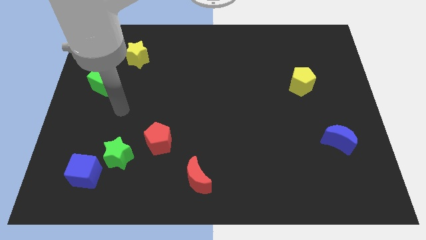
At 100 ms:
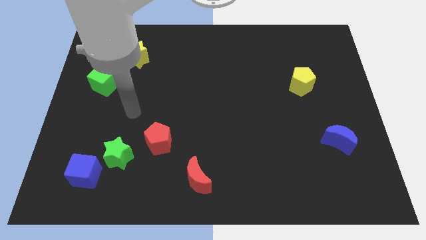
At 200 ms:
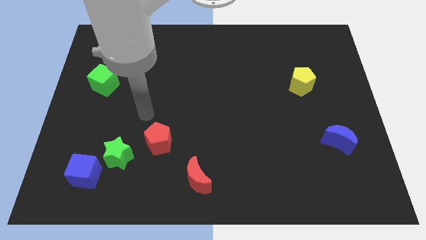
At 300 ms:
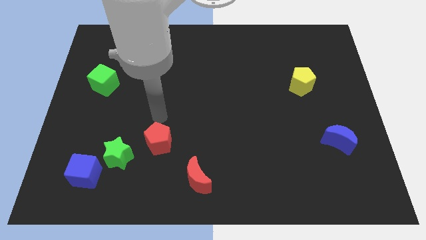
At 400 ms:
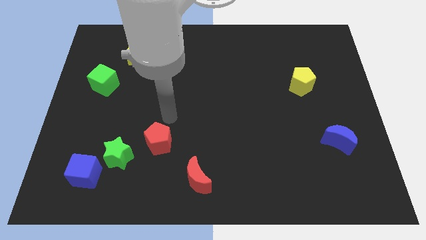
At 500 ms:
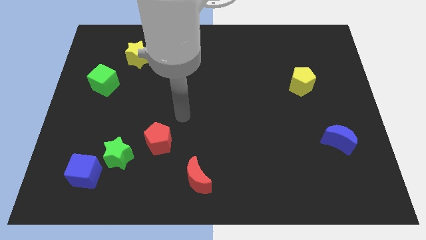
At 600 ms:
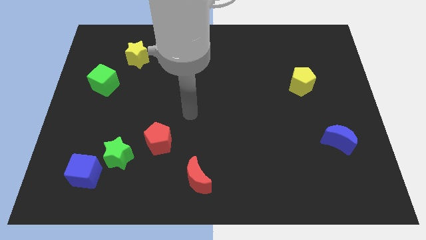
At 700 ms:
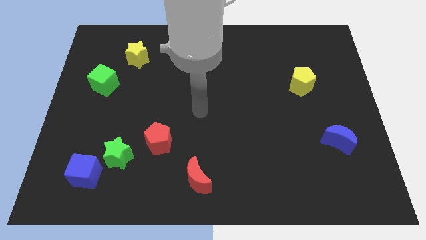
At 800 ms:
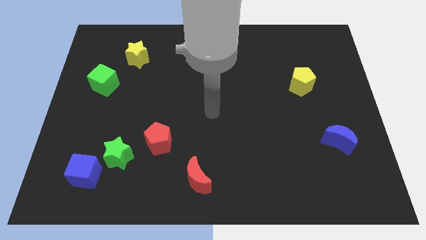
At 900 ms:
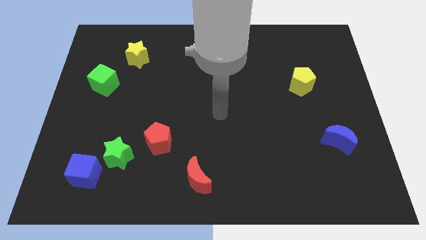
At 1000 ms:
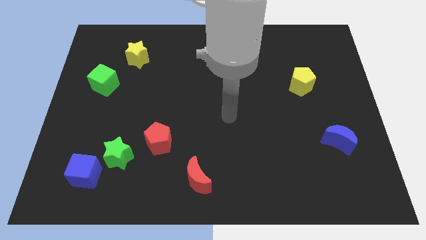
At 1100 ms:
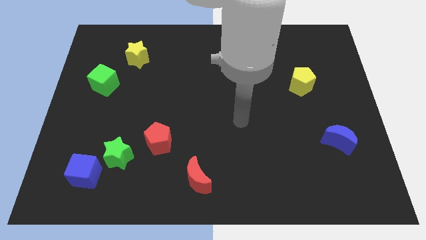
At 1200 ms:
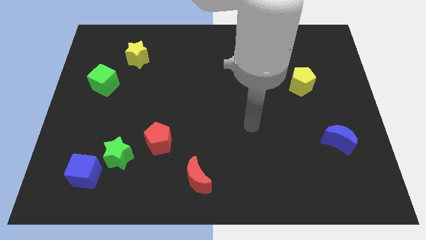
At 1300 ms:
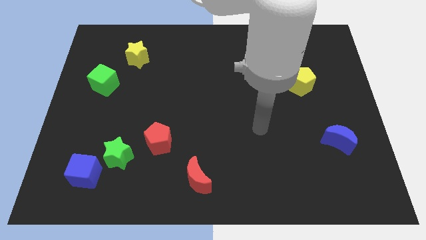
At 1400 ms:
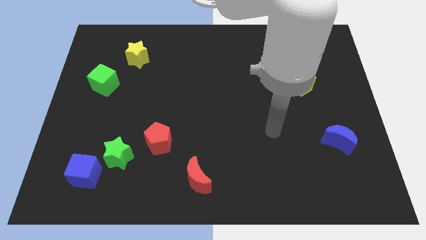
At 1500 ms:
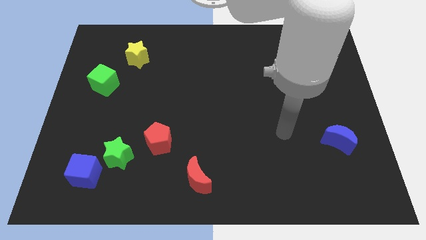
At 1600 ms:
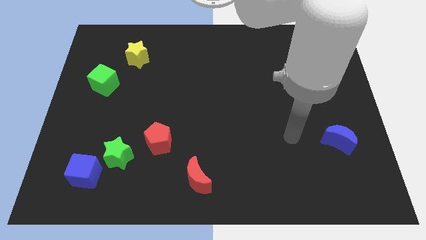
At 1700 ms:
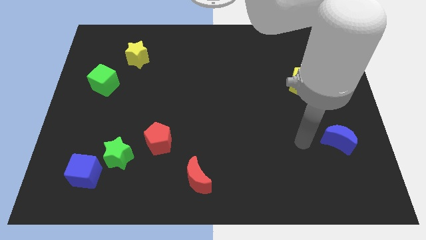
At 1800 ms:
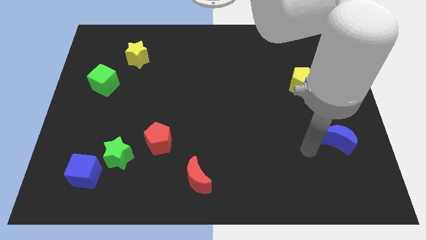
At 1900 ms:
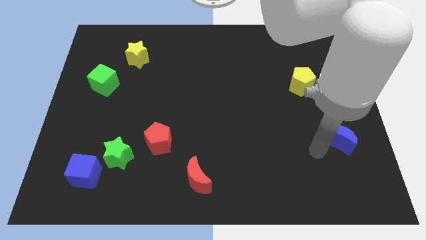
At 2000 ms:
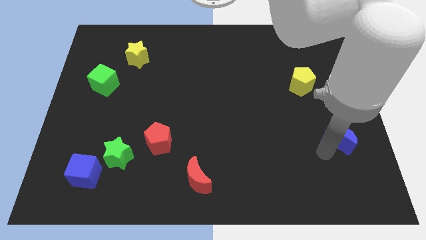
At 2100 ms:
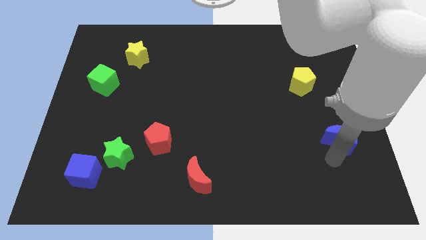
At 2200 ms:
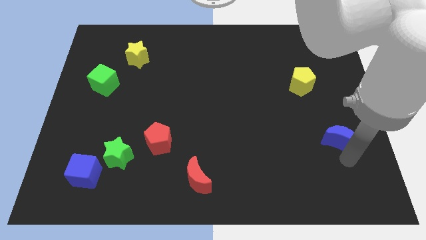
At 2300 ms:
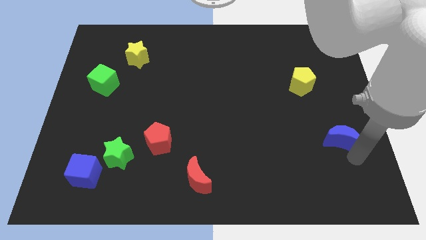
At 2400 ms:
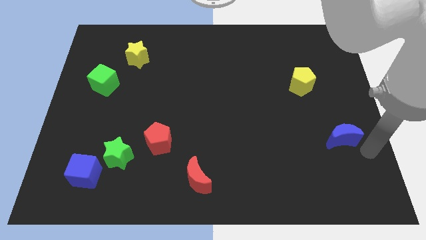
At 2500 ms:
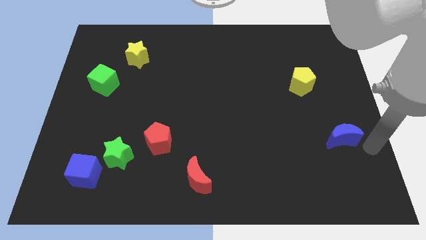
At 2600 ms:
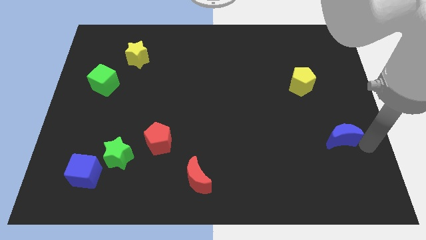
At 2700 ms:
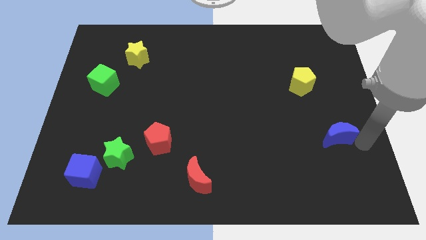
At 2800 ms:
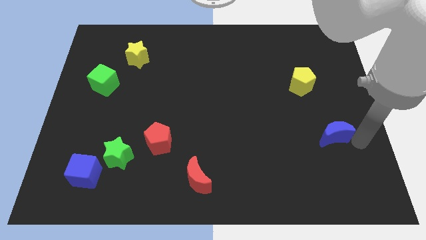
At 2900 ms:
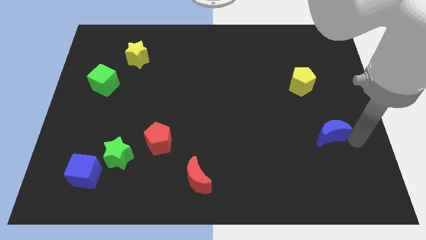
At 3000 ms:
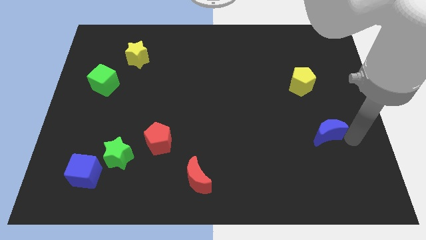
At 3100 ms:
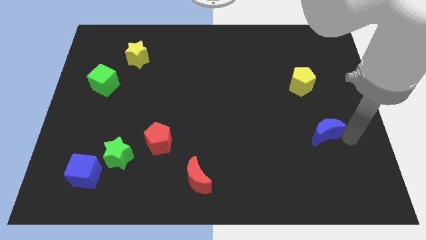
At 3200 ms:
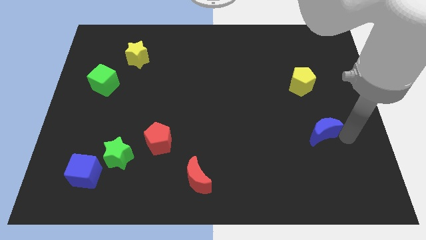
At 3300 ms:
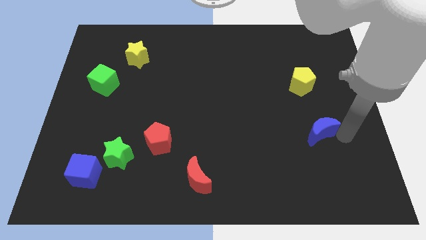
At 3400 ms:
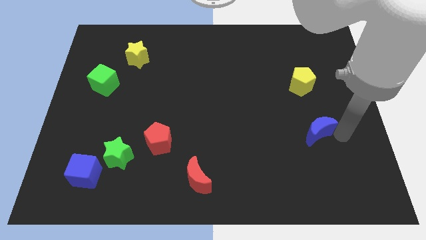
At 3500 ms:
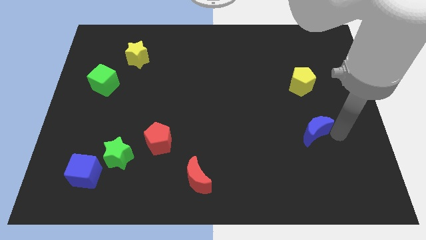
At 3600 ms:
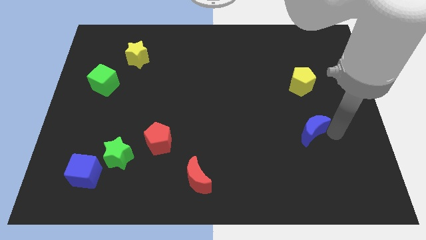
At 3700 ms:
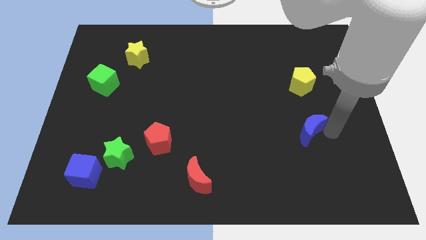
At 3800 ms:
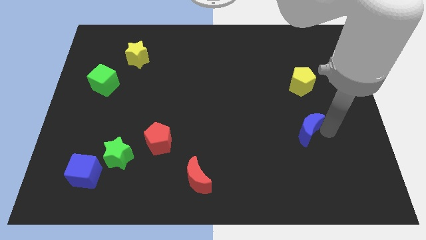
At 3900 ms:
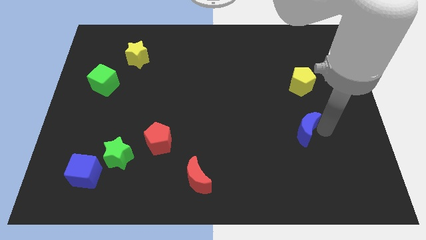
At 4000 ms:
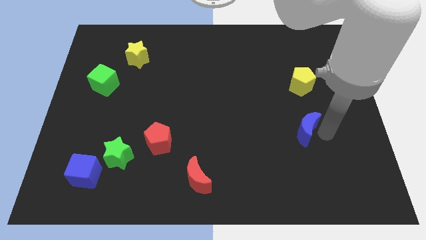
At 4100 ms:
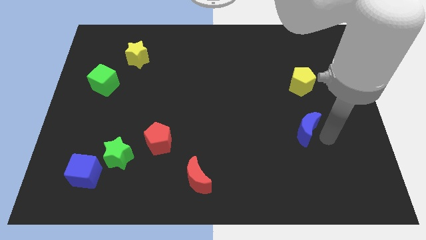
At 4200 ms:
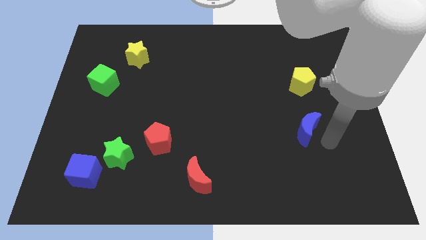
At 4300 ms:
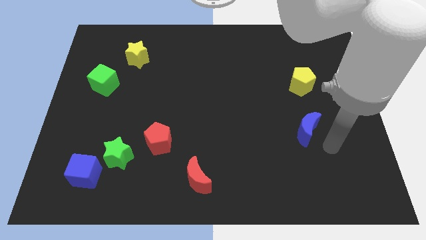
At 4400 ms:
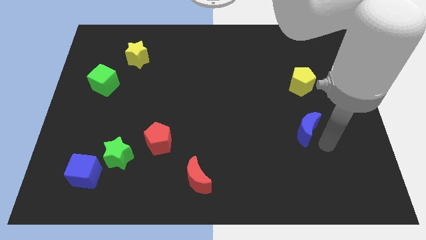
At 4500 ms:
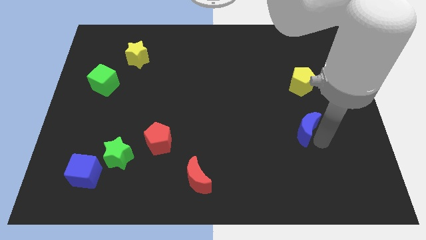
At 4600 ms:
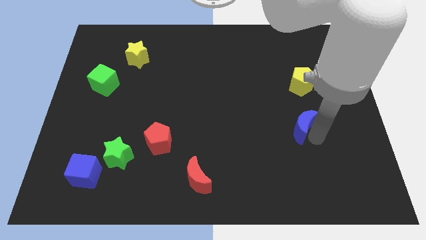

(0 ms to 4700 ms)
move the blue moon slightly up and then to the left

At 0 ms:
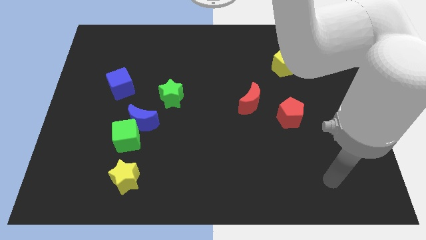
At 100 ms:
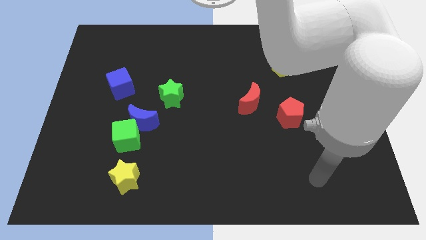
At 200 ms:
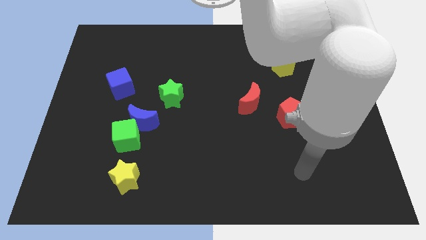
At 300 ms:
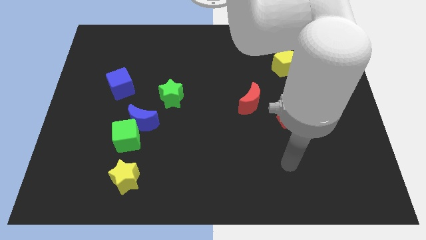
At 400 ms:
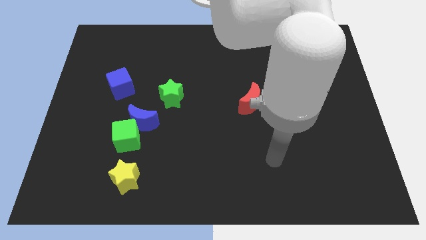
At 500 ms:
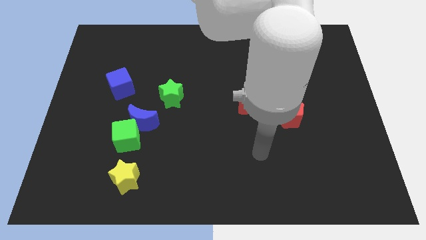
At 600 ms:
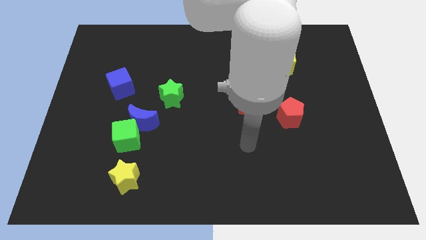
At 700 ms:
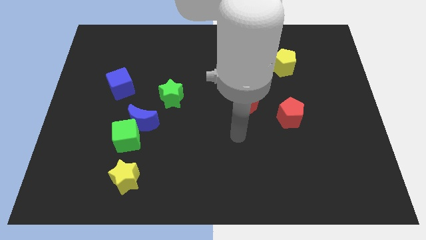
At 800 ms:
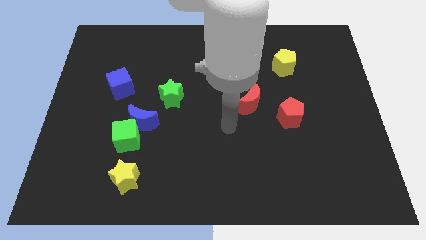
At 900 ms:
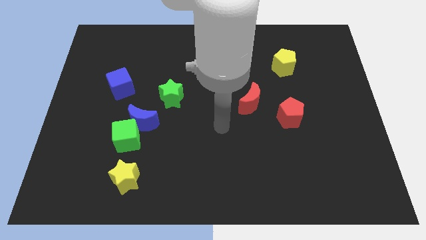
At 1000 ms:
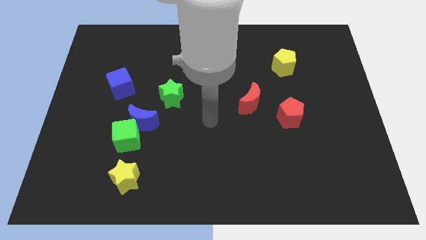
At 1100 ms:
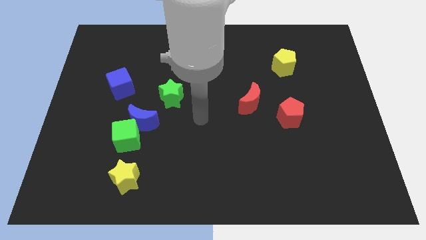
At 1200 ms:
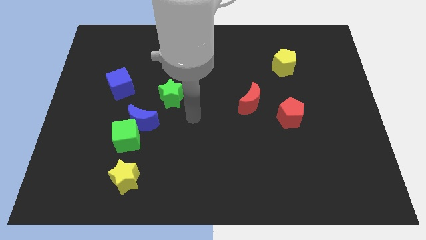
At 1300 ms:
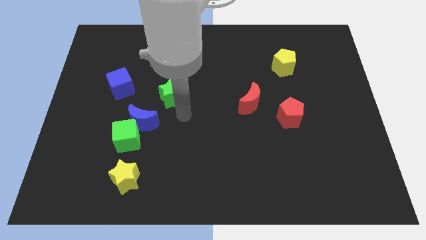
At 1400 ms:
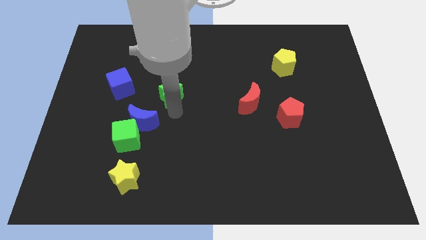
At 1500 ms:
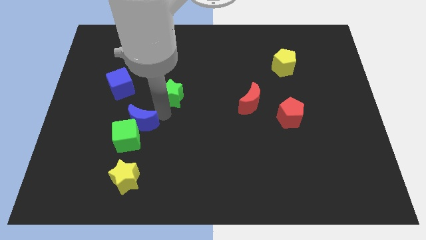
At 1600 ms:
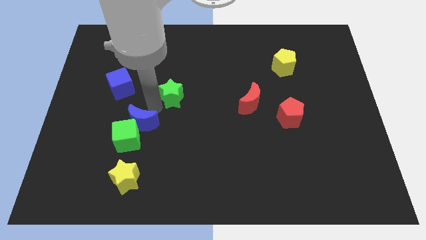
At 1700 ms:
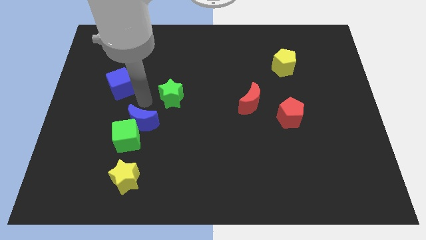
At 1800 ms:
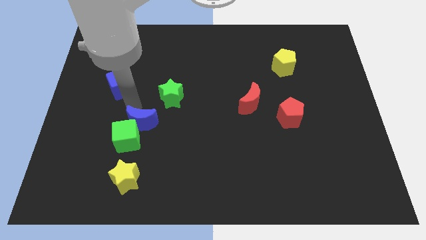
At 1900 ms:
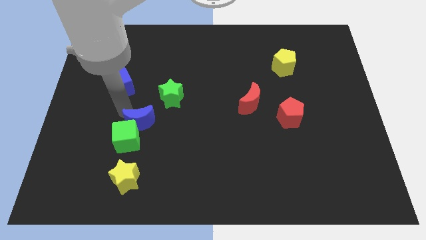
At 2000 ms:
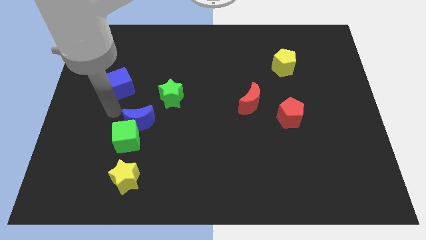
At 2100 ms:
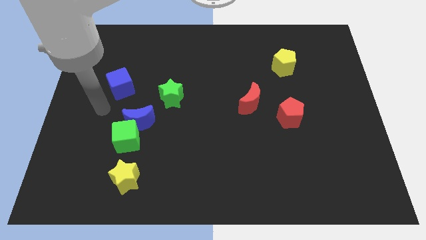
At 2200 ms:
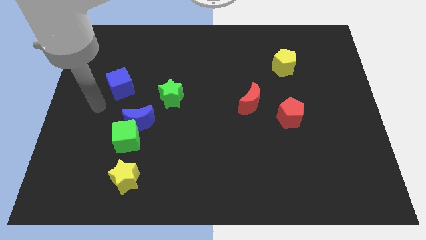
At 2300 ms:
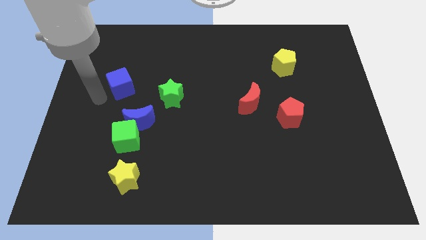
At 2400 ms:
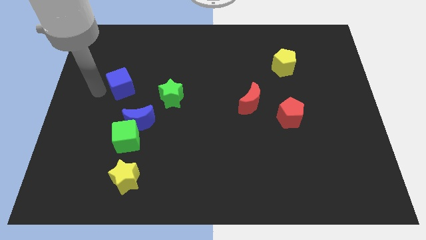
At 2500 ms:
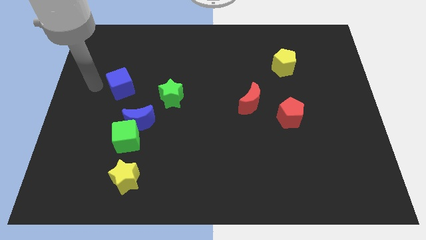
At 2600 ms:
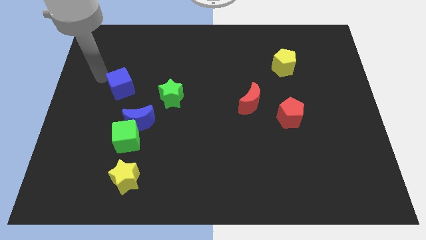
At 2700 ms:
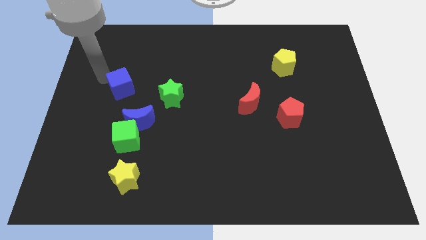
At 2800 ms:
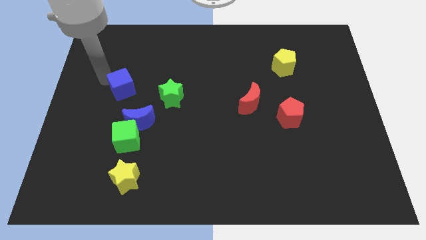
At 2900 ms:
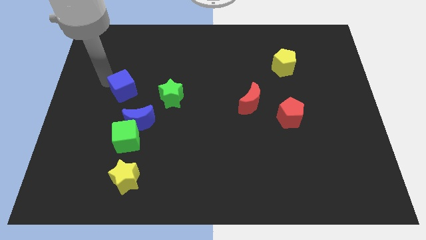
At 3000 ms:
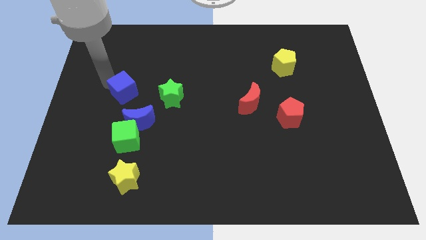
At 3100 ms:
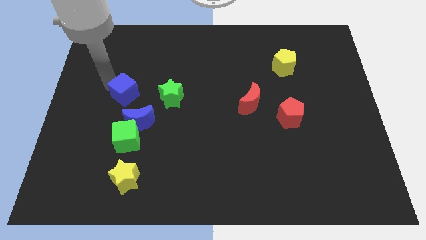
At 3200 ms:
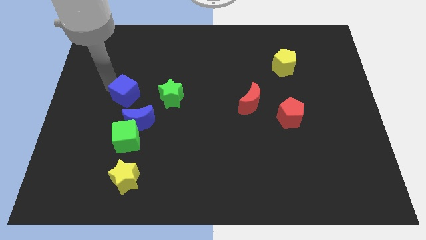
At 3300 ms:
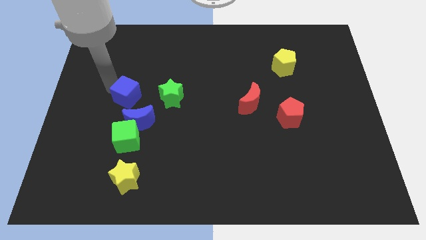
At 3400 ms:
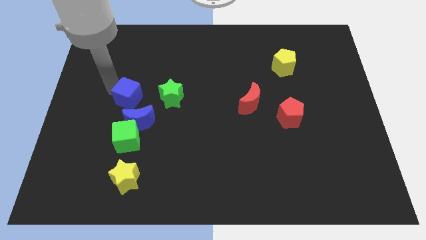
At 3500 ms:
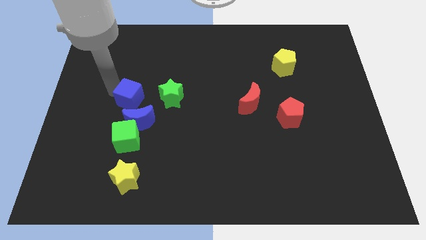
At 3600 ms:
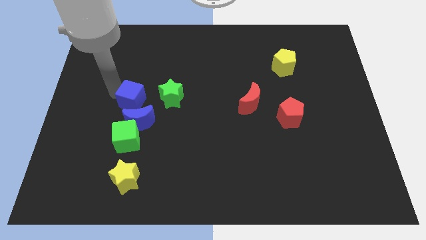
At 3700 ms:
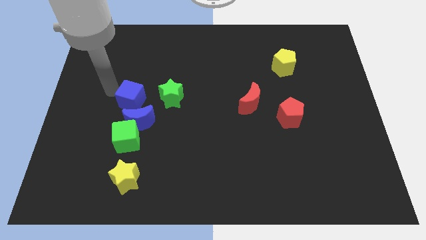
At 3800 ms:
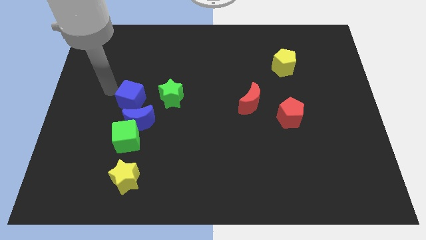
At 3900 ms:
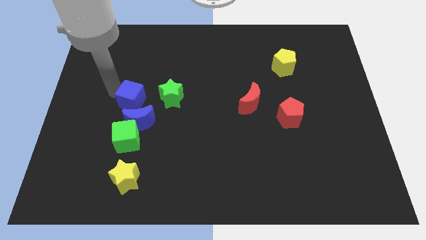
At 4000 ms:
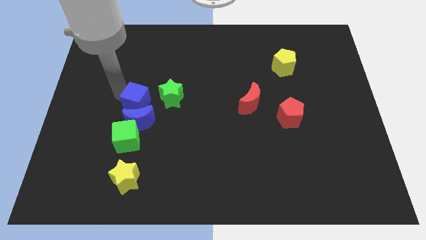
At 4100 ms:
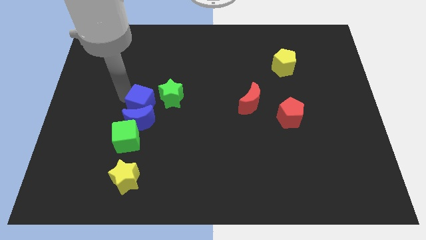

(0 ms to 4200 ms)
push the blue cube down and to the right diagonally somewhat
